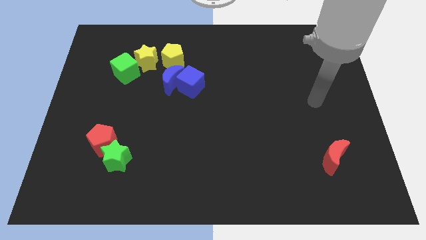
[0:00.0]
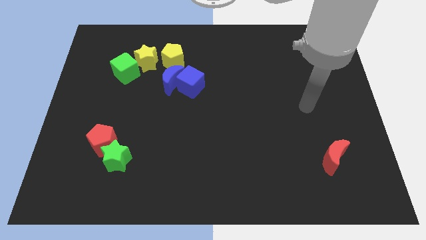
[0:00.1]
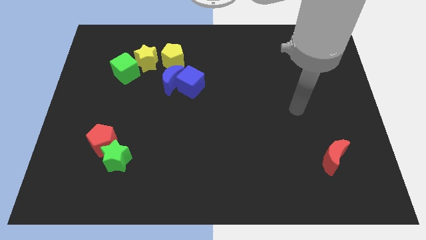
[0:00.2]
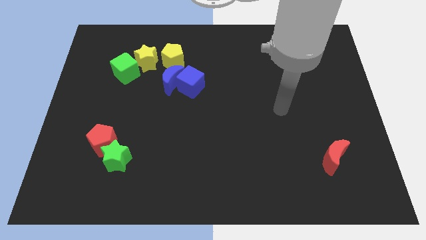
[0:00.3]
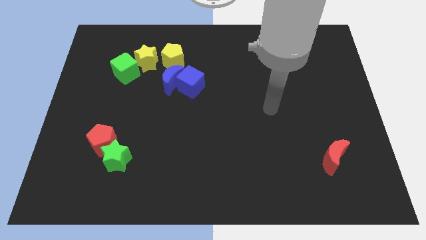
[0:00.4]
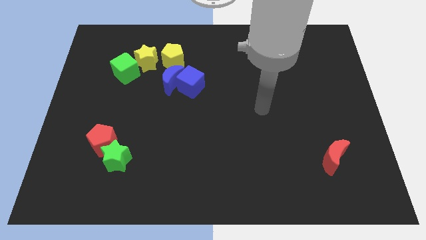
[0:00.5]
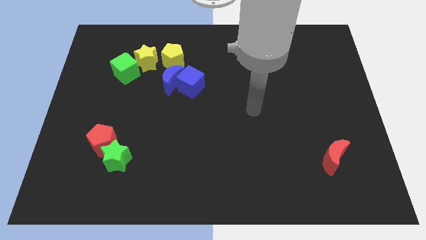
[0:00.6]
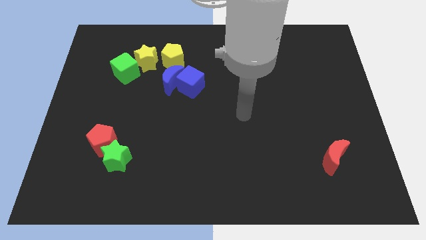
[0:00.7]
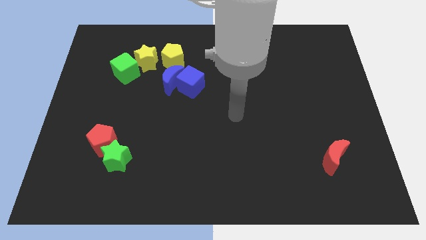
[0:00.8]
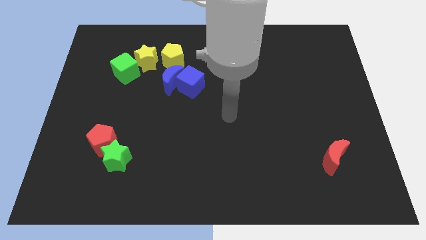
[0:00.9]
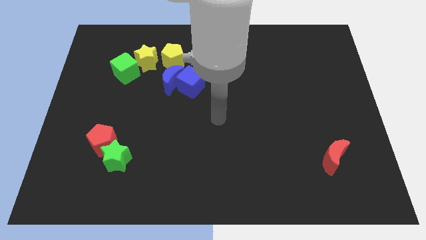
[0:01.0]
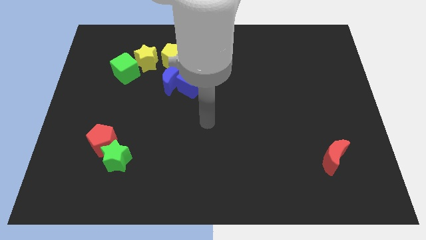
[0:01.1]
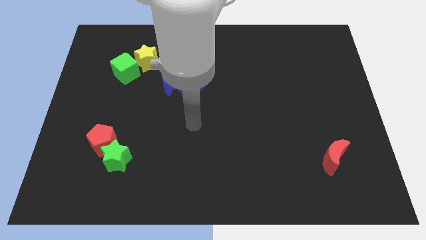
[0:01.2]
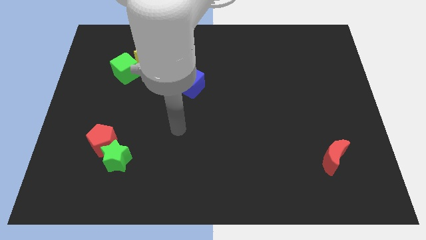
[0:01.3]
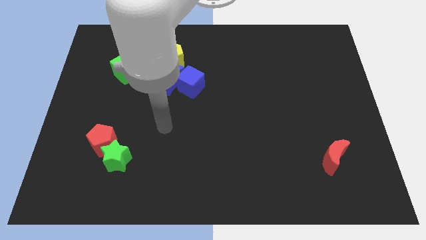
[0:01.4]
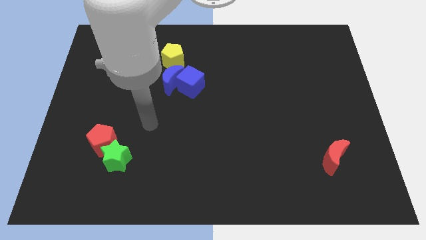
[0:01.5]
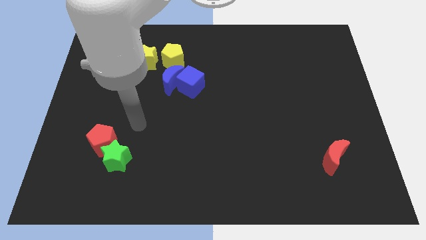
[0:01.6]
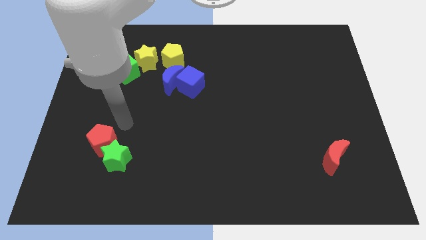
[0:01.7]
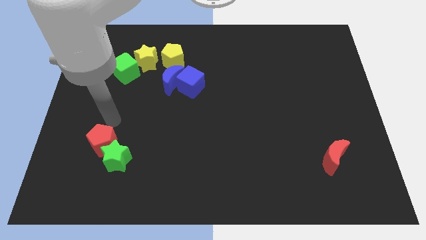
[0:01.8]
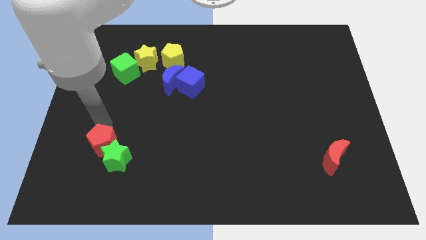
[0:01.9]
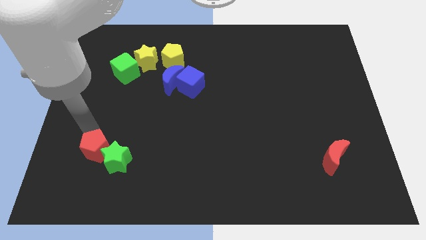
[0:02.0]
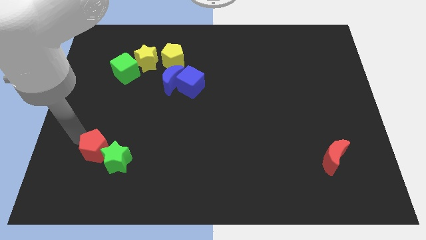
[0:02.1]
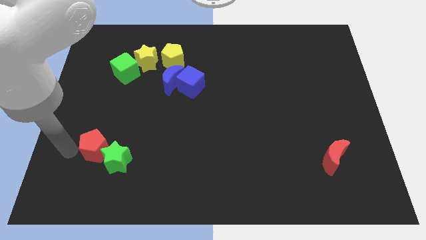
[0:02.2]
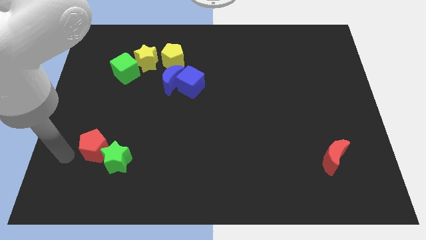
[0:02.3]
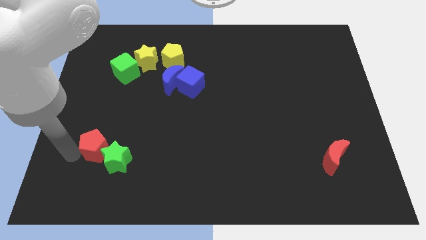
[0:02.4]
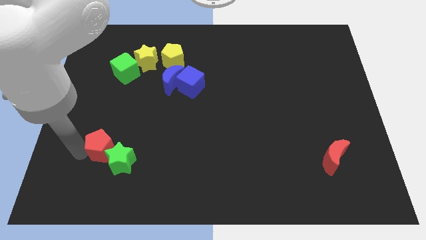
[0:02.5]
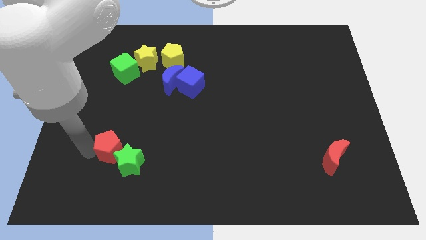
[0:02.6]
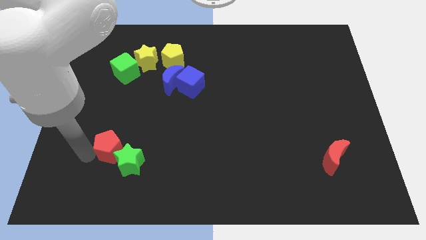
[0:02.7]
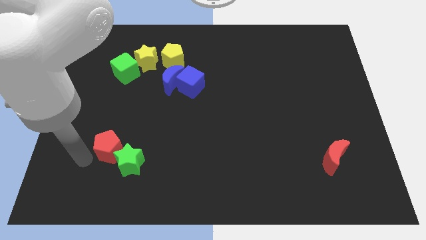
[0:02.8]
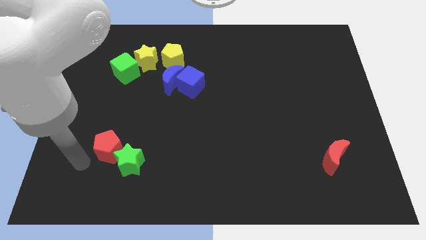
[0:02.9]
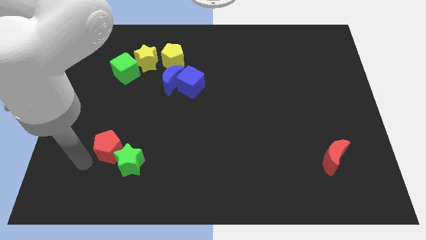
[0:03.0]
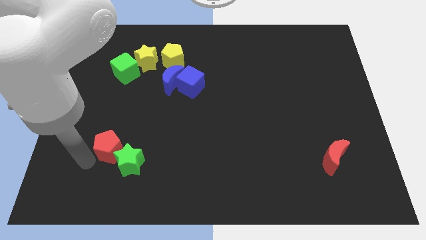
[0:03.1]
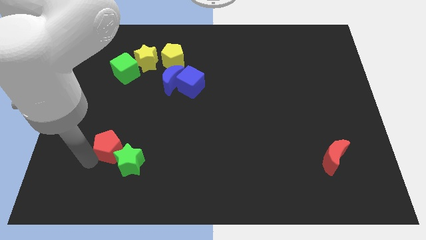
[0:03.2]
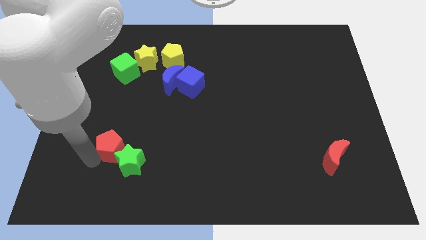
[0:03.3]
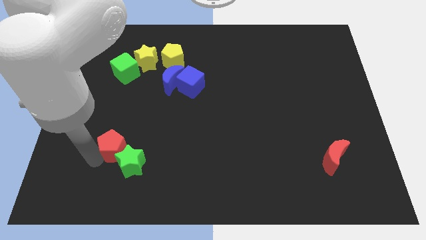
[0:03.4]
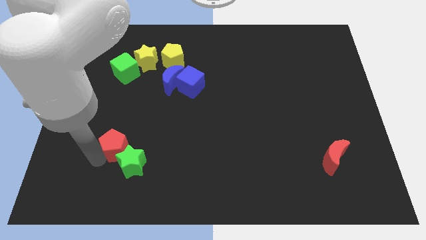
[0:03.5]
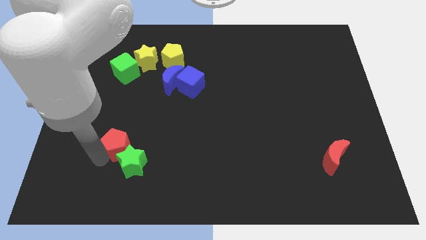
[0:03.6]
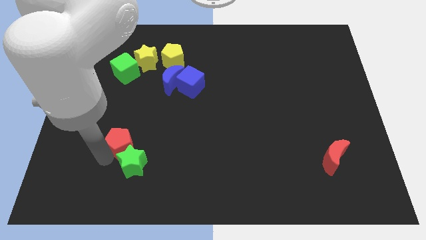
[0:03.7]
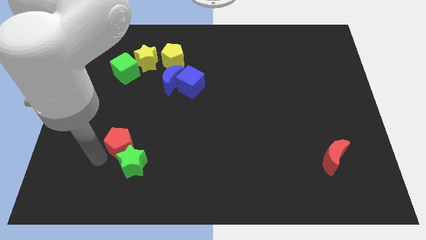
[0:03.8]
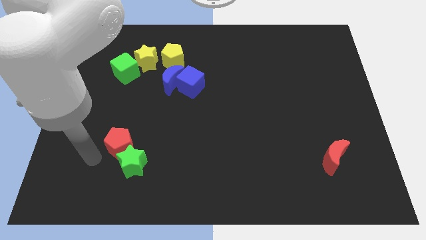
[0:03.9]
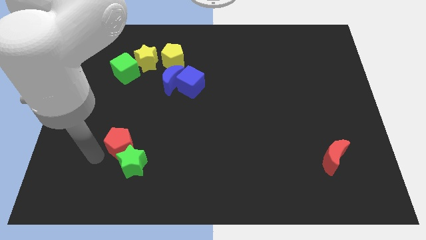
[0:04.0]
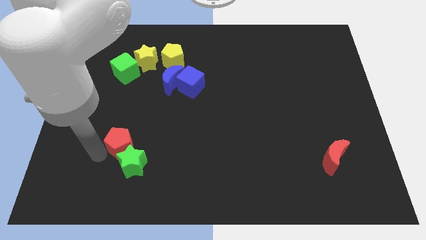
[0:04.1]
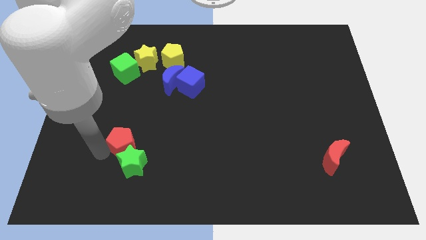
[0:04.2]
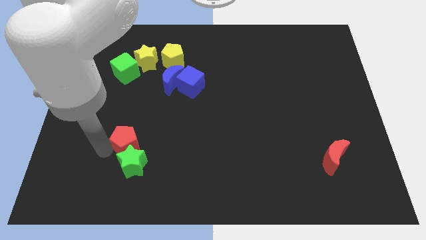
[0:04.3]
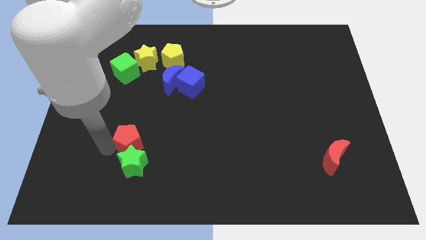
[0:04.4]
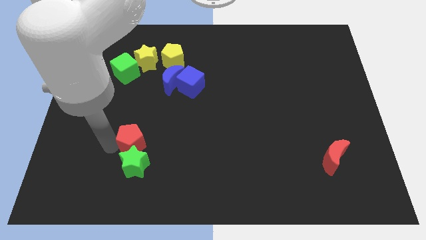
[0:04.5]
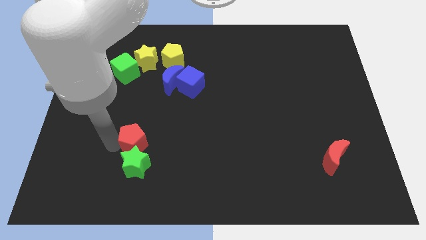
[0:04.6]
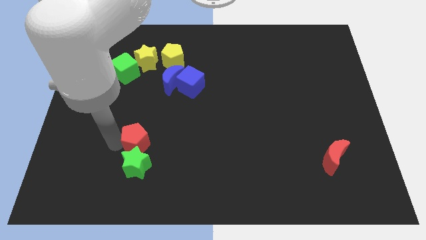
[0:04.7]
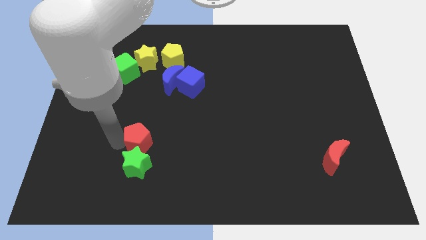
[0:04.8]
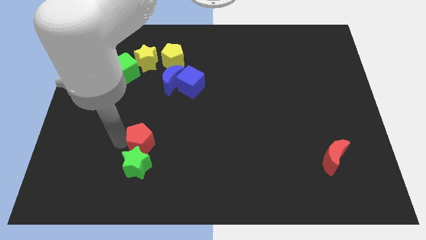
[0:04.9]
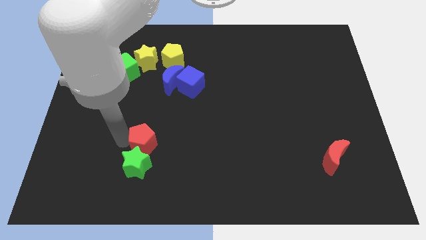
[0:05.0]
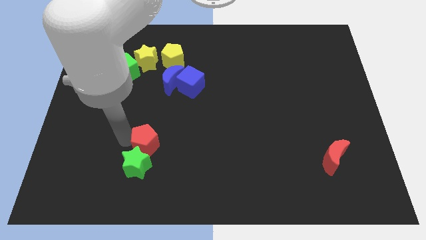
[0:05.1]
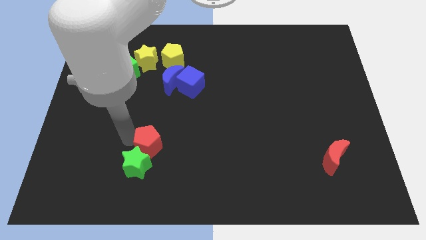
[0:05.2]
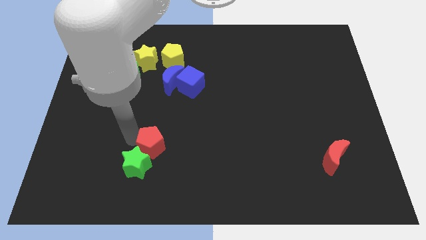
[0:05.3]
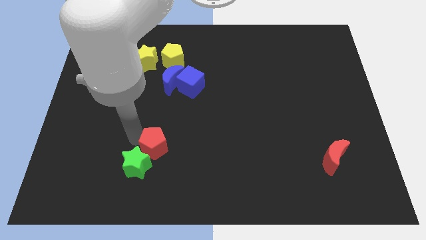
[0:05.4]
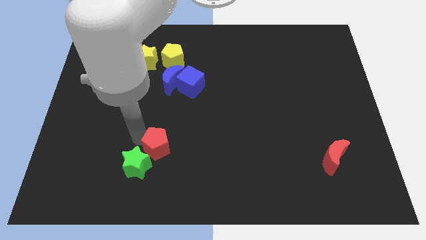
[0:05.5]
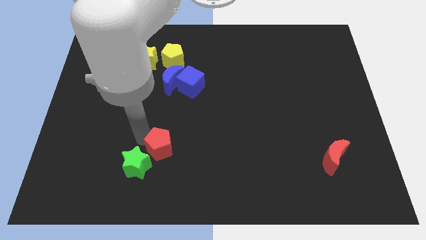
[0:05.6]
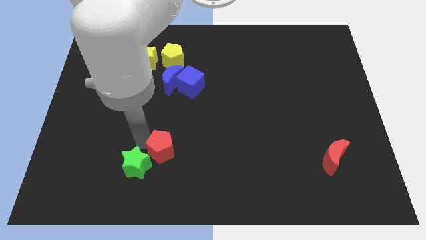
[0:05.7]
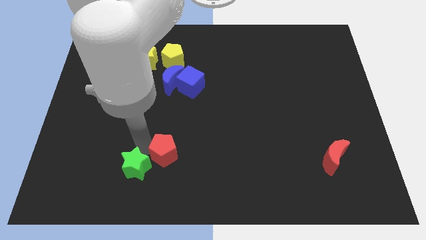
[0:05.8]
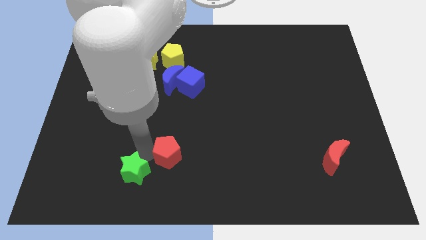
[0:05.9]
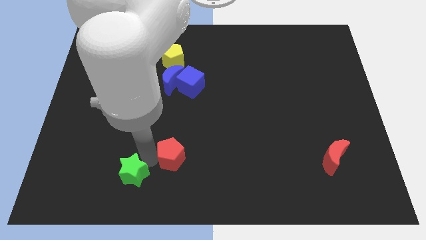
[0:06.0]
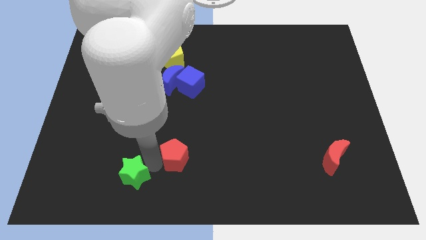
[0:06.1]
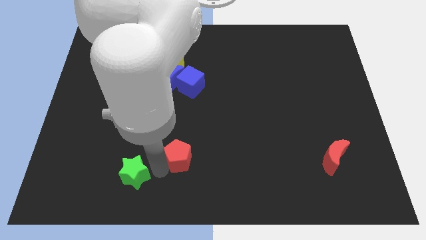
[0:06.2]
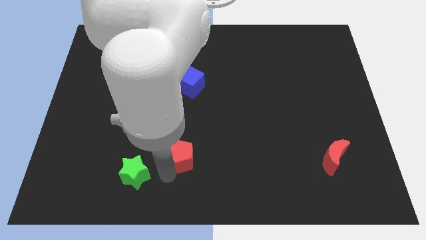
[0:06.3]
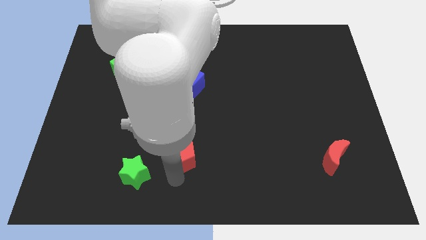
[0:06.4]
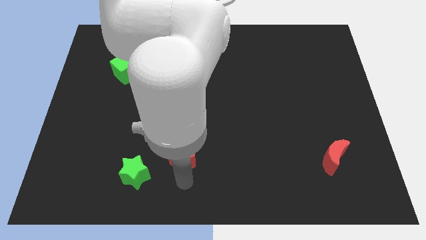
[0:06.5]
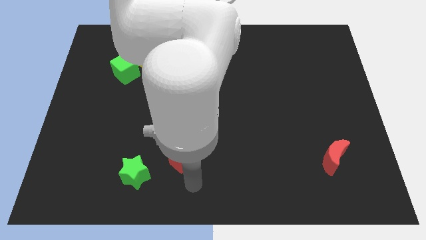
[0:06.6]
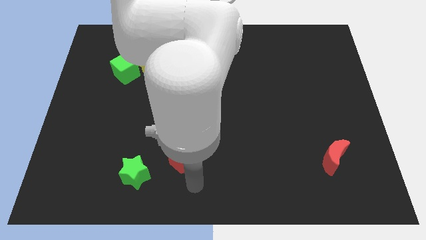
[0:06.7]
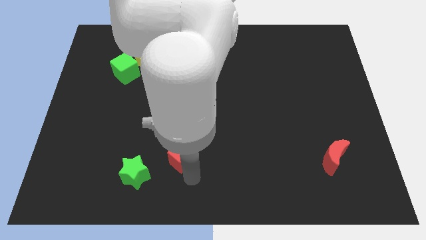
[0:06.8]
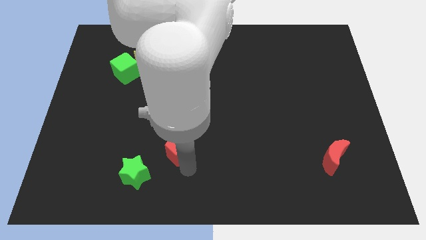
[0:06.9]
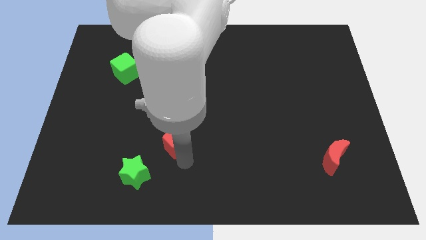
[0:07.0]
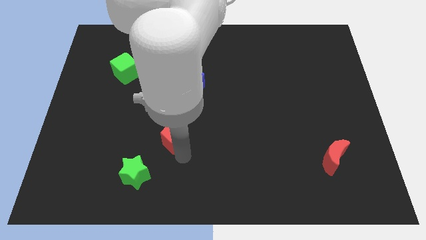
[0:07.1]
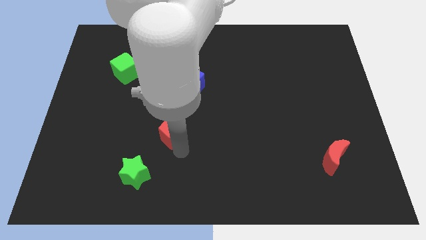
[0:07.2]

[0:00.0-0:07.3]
move the red pentagon below the blue cube
